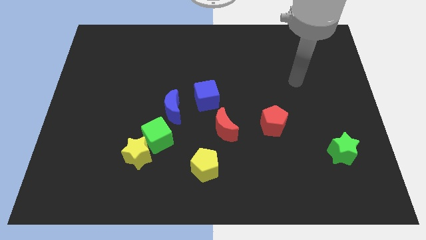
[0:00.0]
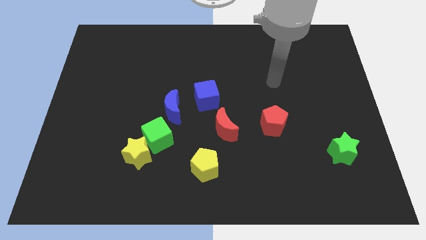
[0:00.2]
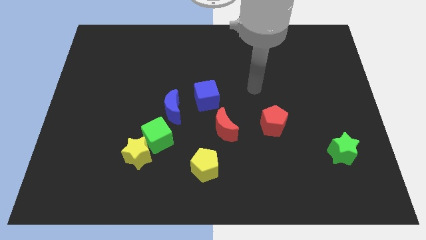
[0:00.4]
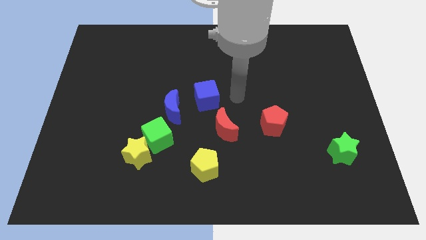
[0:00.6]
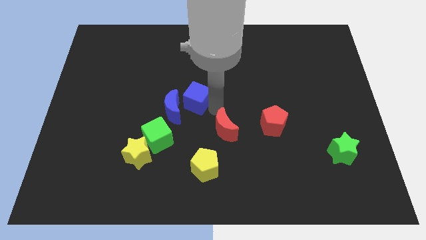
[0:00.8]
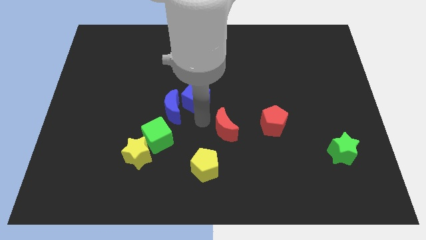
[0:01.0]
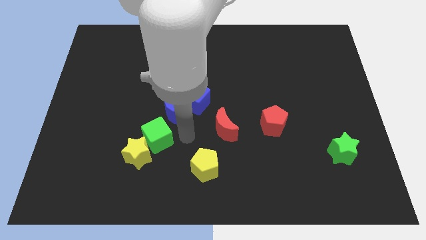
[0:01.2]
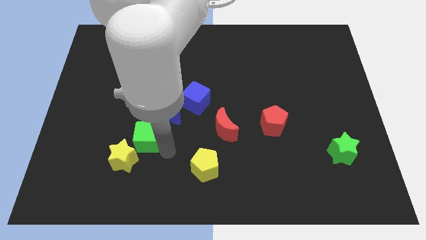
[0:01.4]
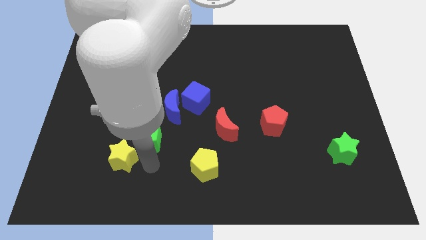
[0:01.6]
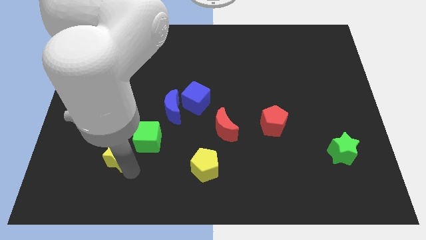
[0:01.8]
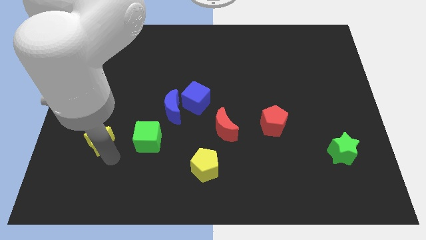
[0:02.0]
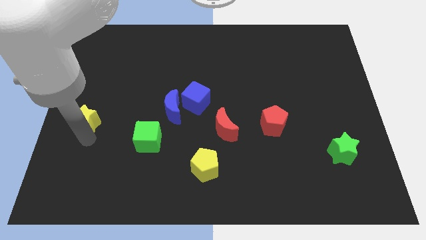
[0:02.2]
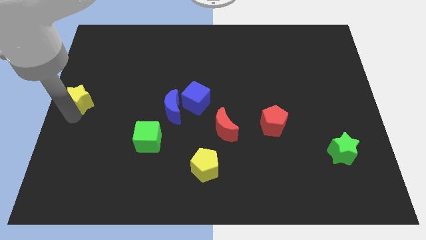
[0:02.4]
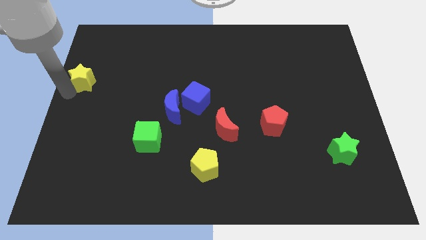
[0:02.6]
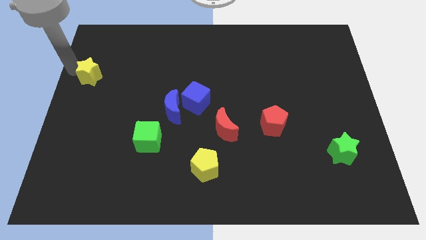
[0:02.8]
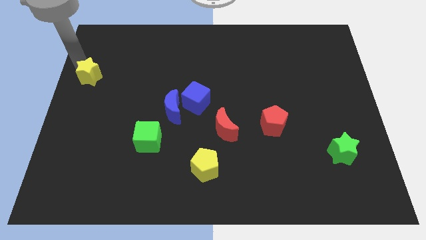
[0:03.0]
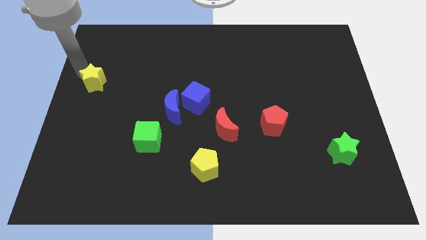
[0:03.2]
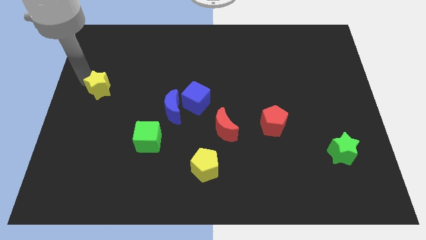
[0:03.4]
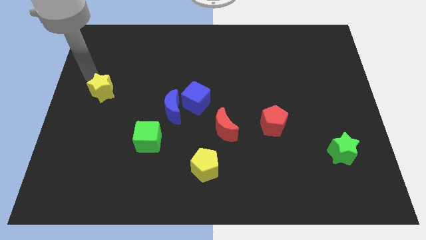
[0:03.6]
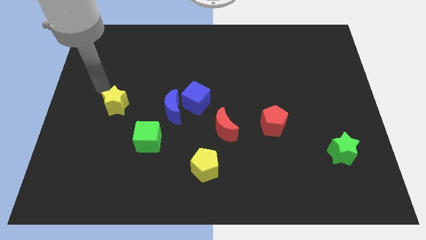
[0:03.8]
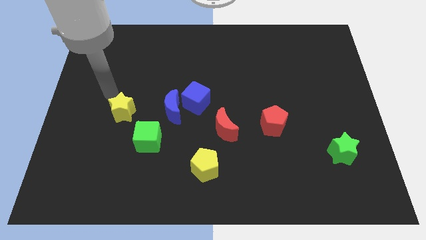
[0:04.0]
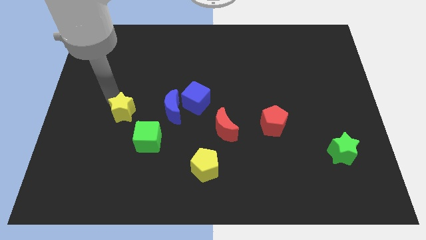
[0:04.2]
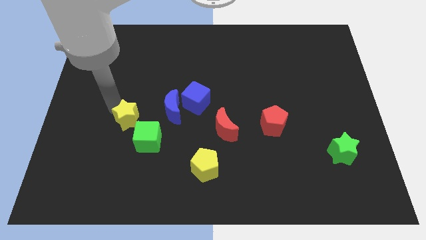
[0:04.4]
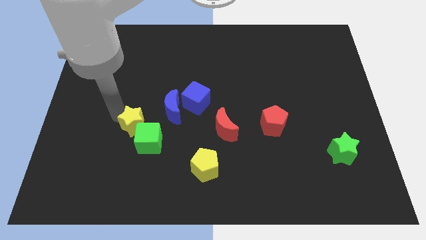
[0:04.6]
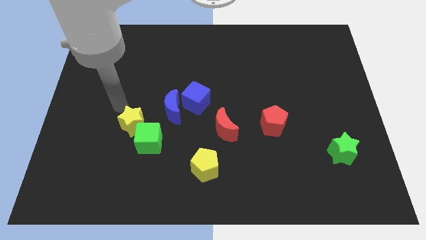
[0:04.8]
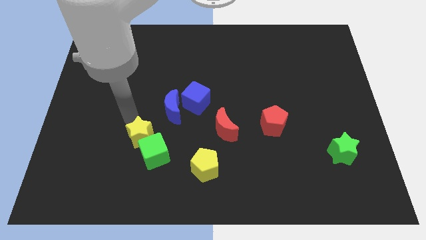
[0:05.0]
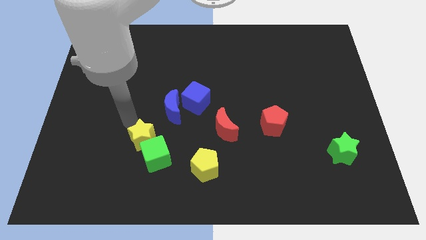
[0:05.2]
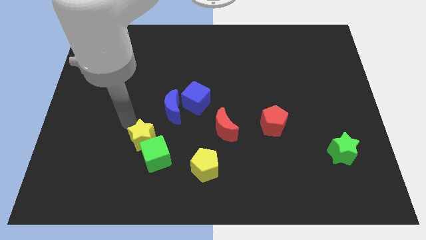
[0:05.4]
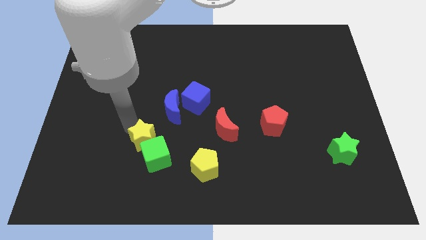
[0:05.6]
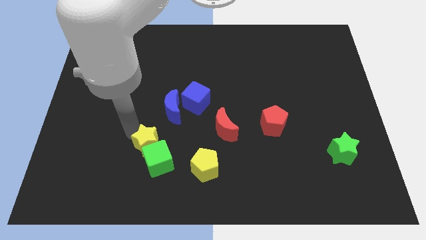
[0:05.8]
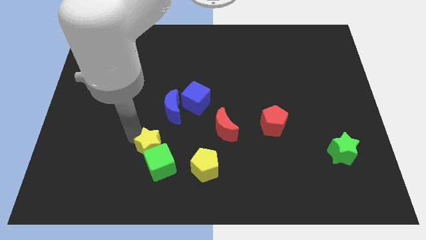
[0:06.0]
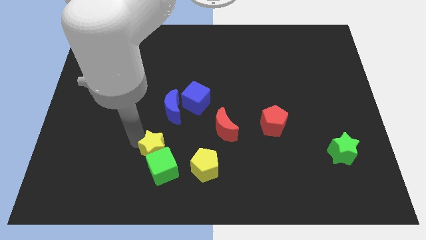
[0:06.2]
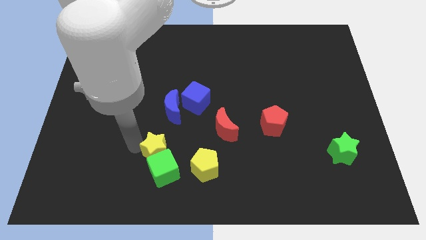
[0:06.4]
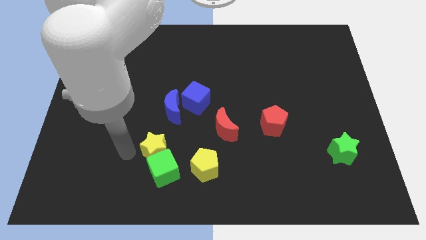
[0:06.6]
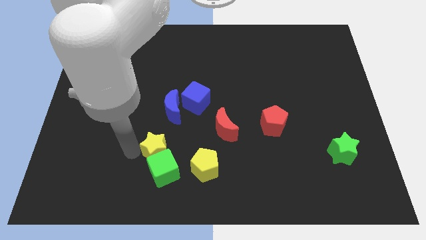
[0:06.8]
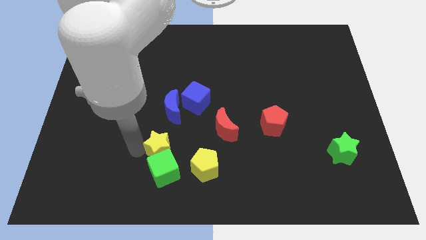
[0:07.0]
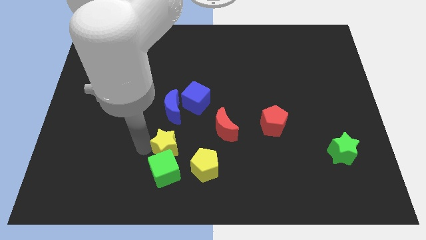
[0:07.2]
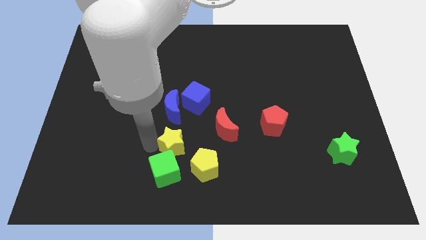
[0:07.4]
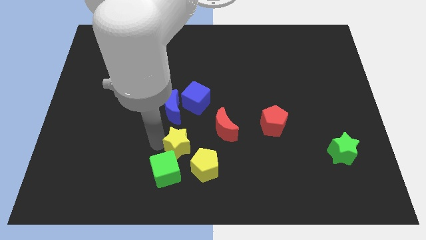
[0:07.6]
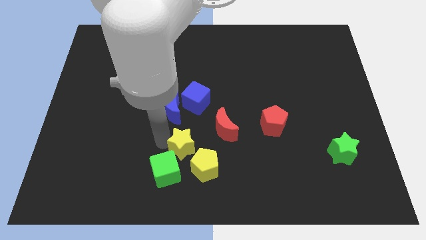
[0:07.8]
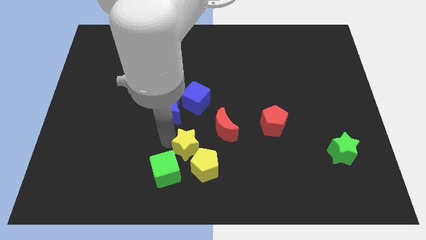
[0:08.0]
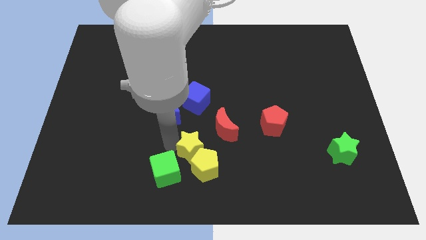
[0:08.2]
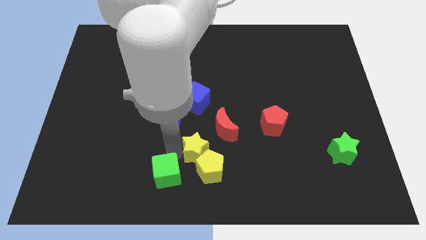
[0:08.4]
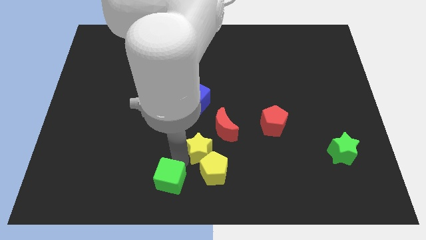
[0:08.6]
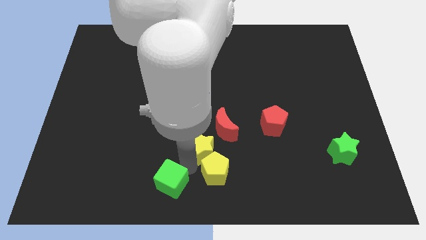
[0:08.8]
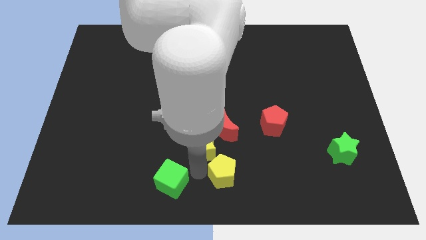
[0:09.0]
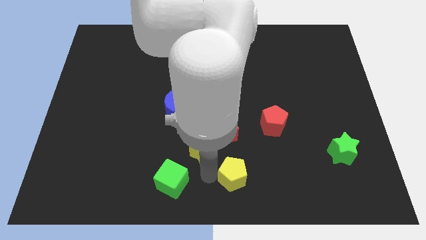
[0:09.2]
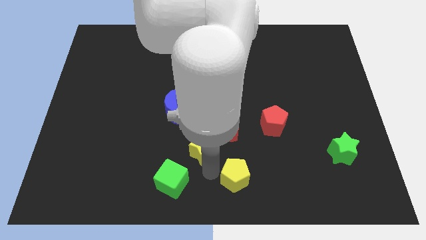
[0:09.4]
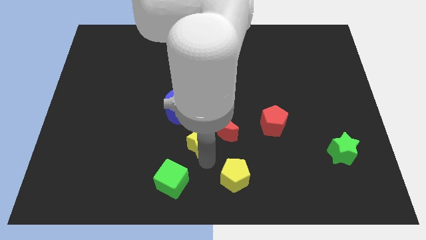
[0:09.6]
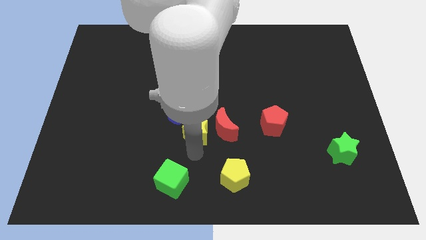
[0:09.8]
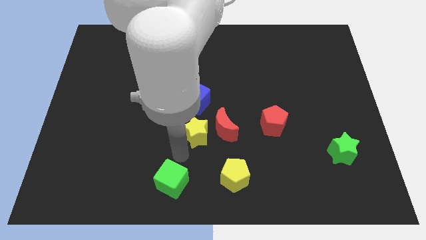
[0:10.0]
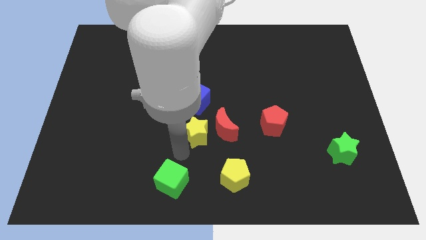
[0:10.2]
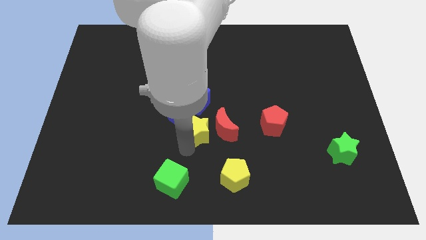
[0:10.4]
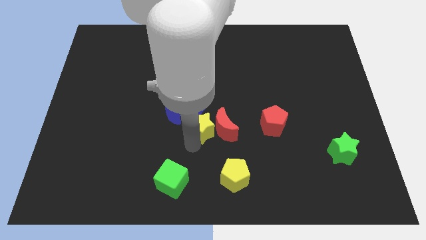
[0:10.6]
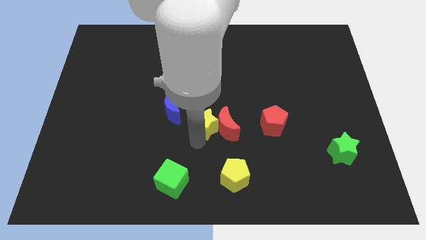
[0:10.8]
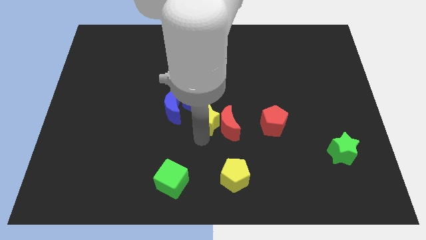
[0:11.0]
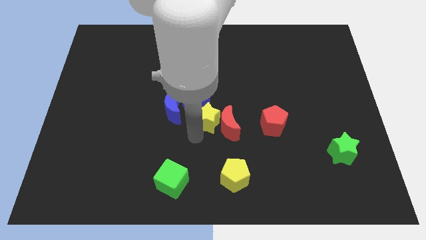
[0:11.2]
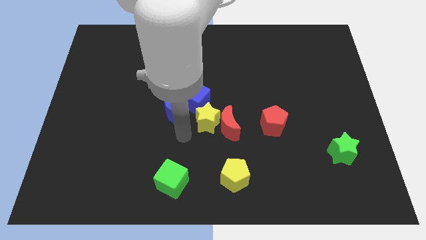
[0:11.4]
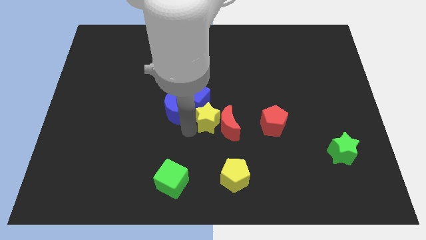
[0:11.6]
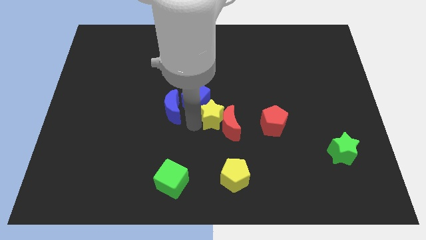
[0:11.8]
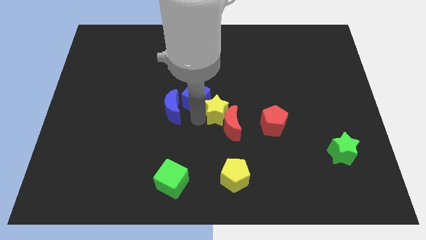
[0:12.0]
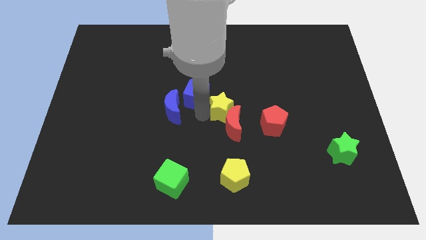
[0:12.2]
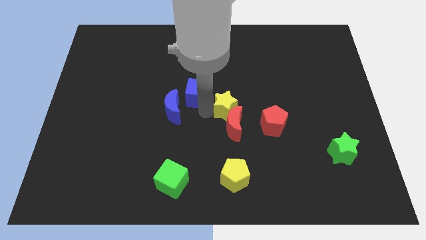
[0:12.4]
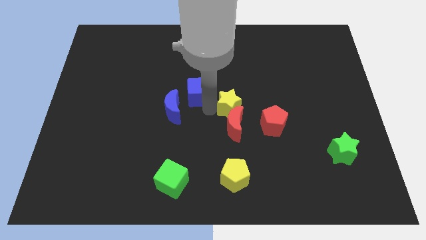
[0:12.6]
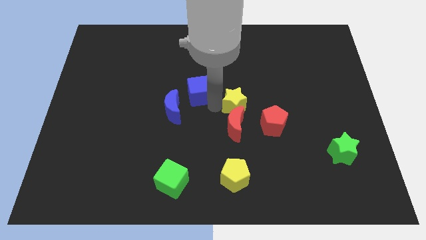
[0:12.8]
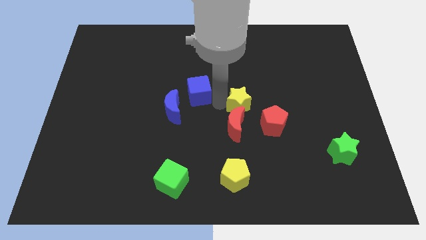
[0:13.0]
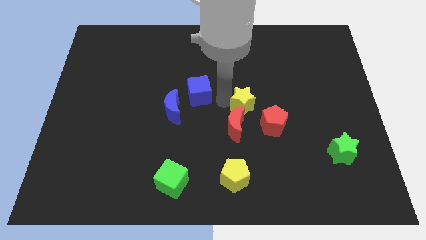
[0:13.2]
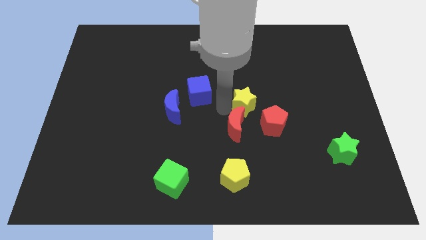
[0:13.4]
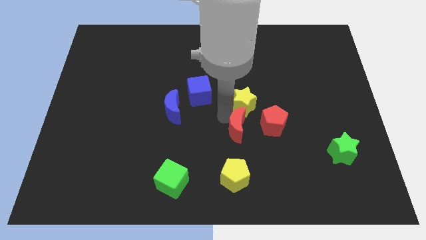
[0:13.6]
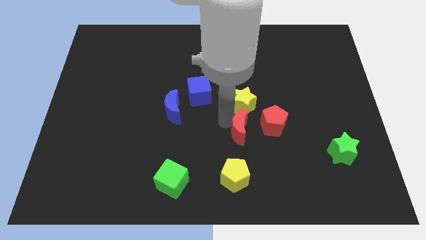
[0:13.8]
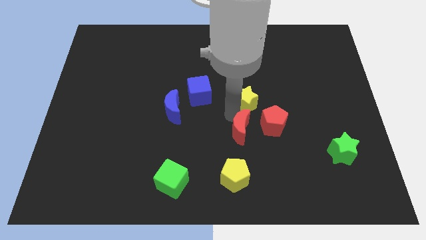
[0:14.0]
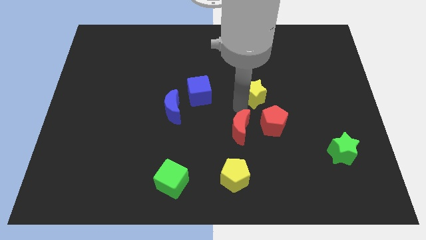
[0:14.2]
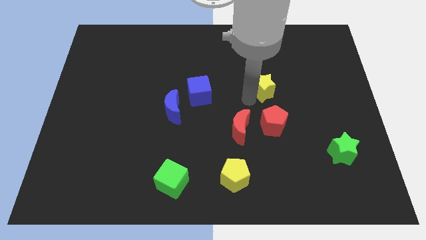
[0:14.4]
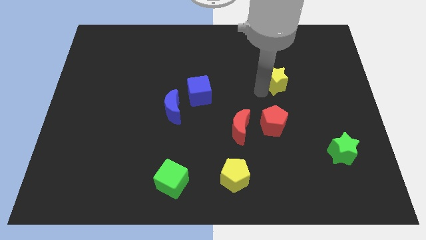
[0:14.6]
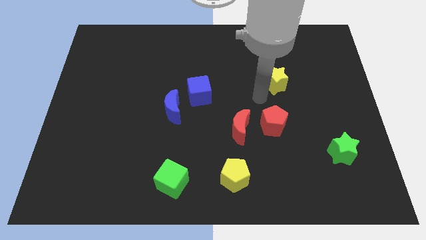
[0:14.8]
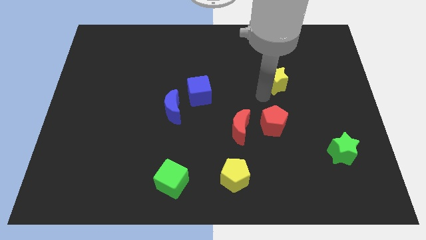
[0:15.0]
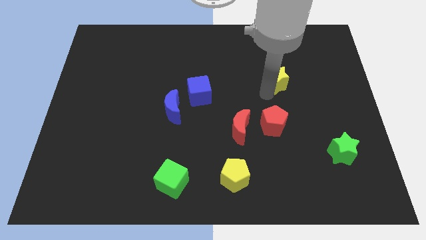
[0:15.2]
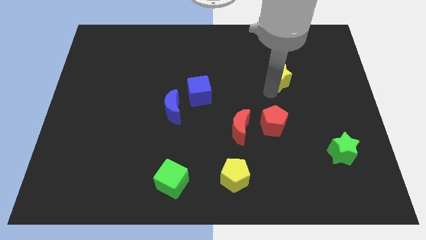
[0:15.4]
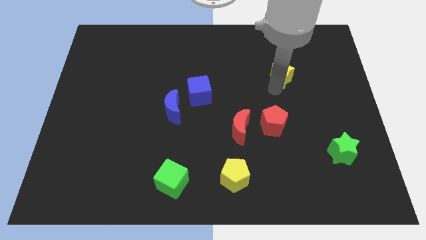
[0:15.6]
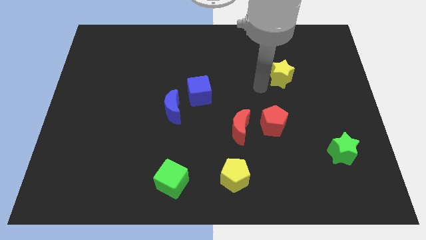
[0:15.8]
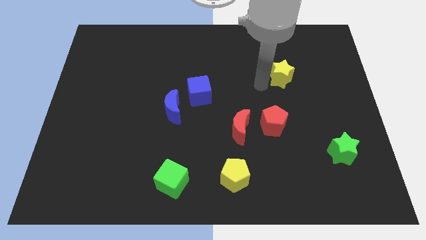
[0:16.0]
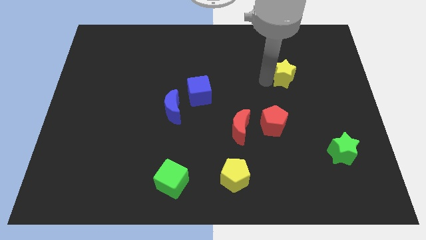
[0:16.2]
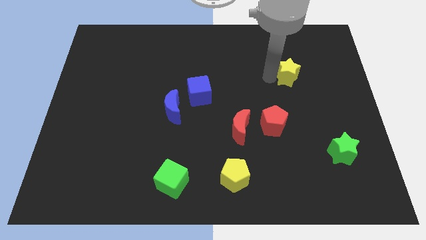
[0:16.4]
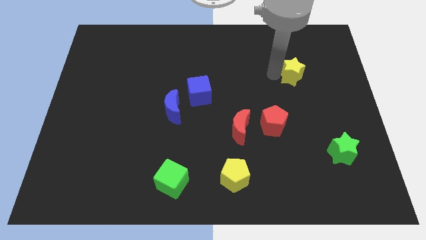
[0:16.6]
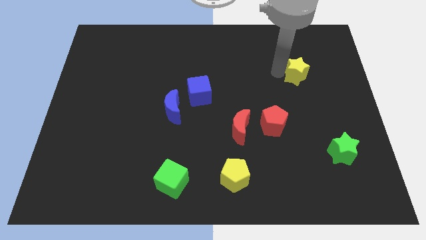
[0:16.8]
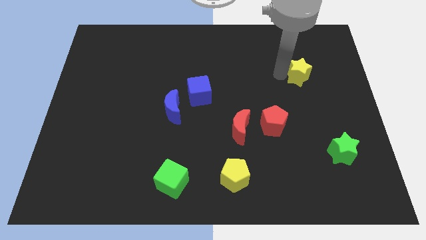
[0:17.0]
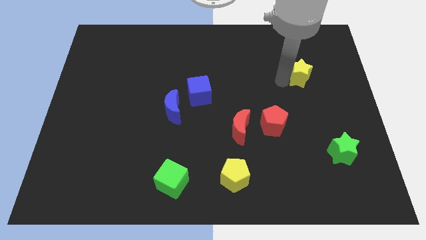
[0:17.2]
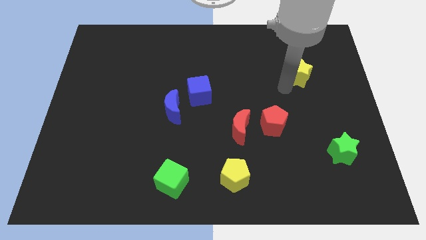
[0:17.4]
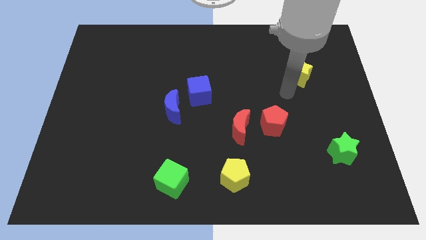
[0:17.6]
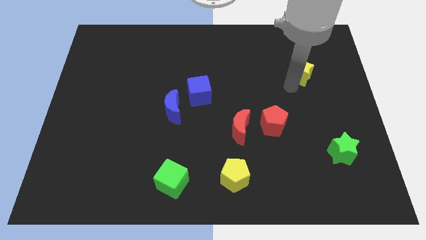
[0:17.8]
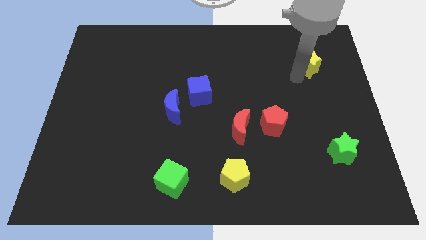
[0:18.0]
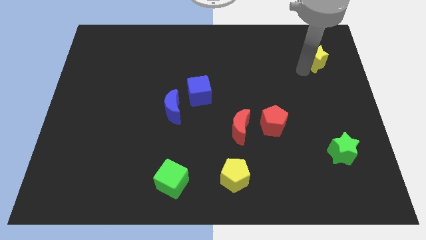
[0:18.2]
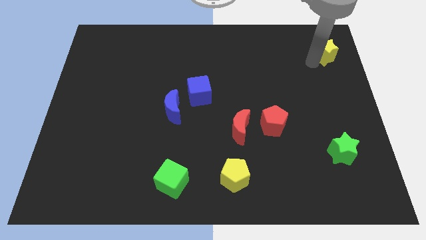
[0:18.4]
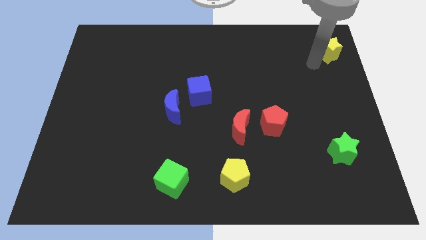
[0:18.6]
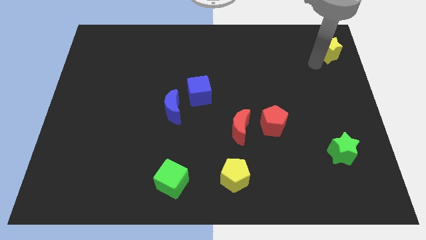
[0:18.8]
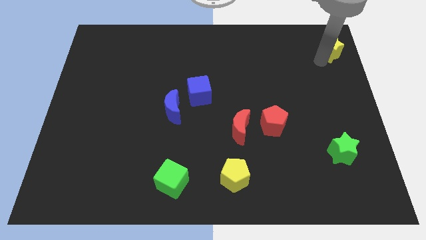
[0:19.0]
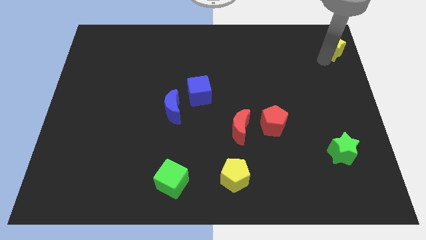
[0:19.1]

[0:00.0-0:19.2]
move the yellow star to the top right corner
